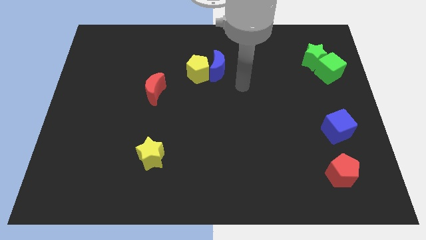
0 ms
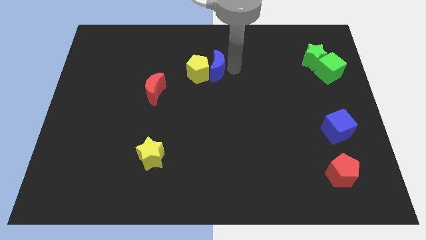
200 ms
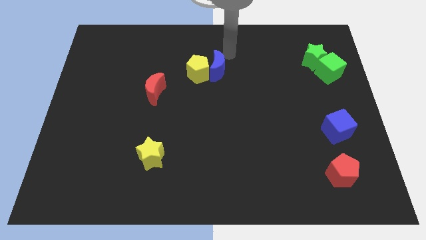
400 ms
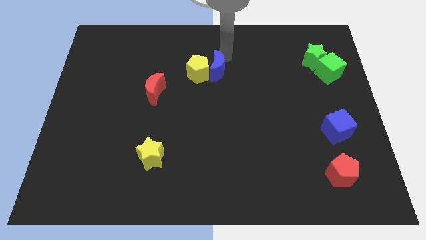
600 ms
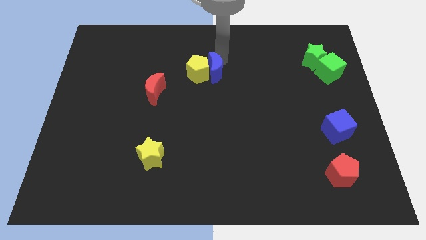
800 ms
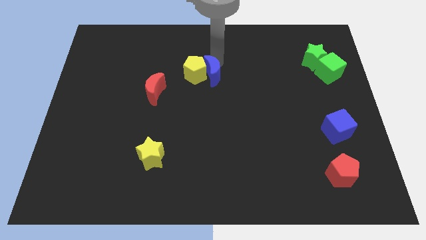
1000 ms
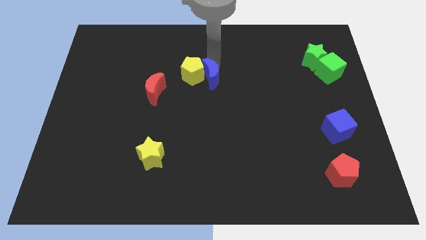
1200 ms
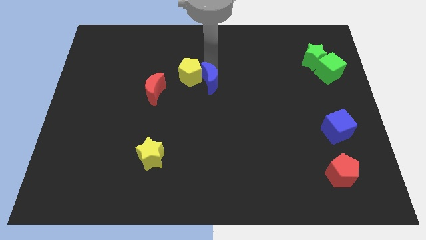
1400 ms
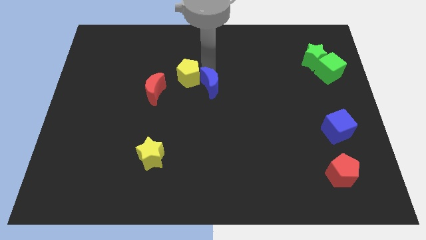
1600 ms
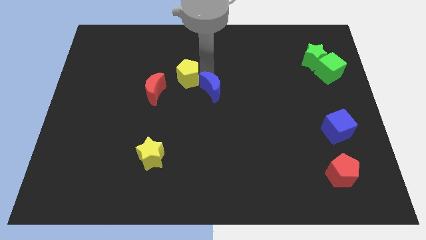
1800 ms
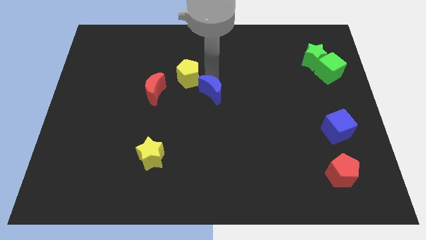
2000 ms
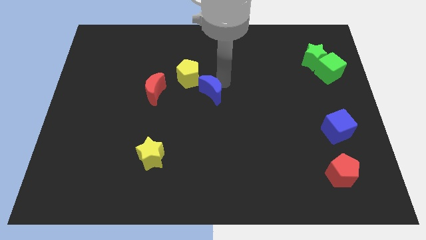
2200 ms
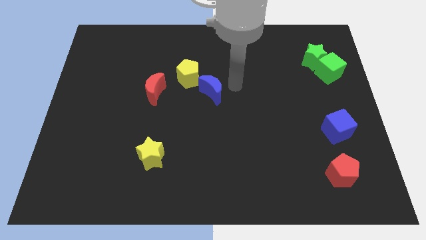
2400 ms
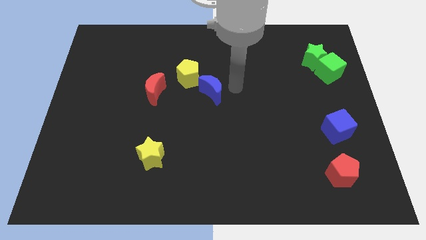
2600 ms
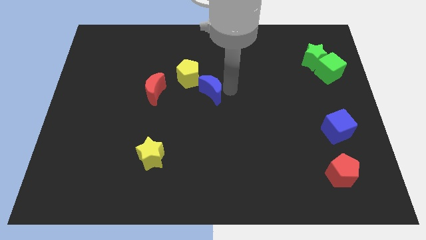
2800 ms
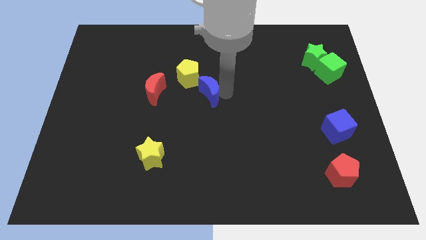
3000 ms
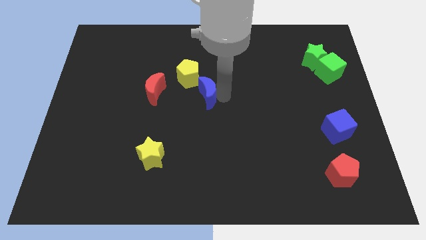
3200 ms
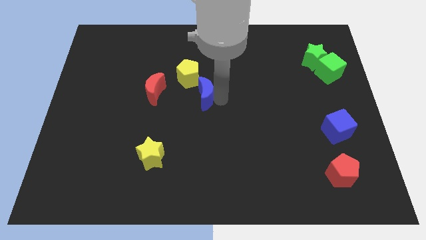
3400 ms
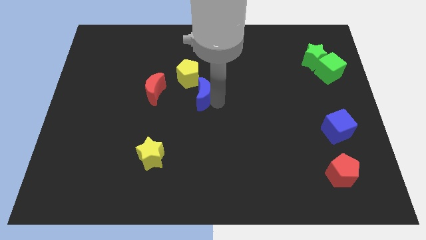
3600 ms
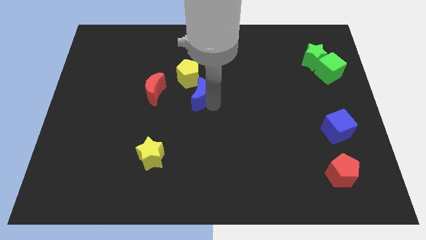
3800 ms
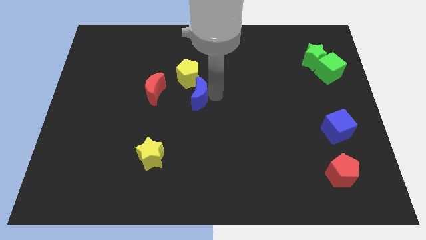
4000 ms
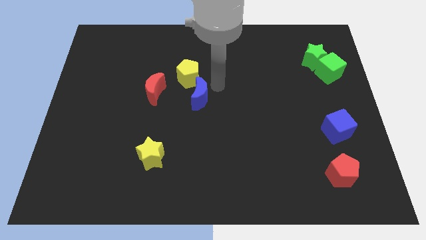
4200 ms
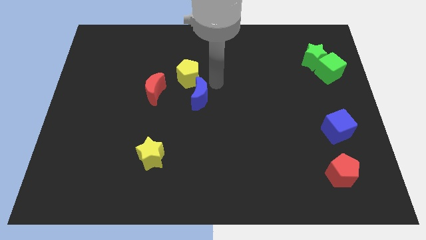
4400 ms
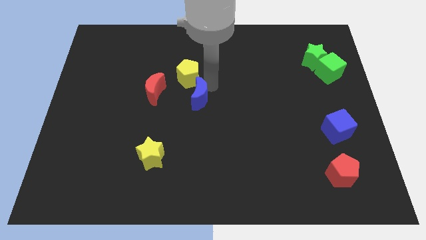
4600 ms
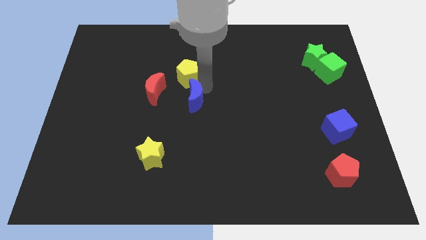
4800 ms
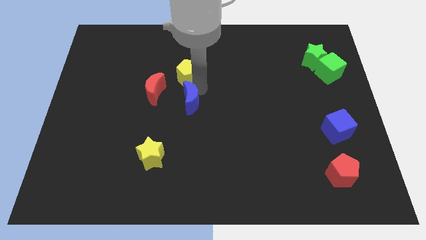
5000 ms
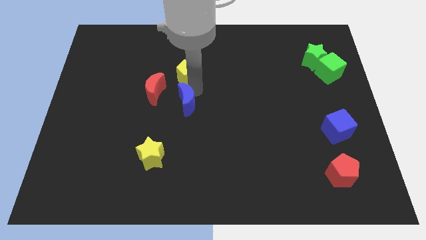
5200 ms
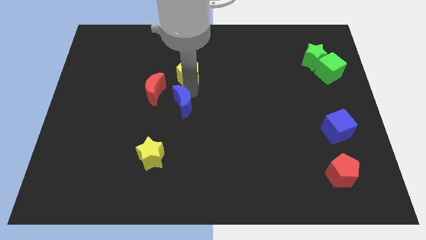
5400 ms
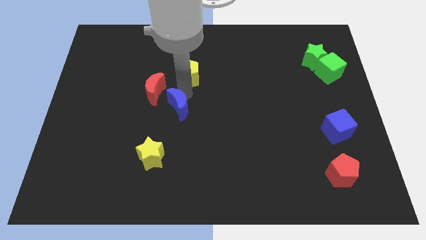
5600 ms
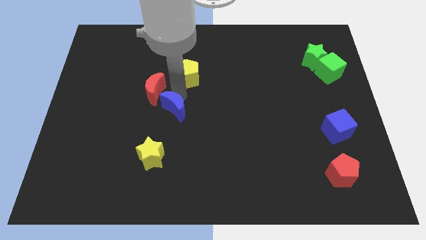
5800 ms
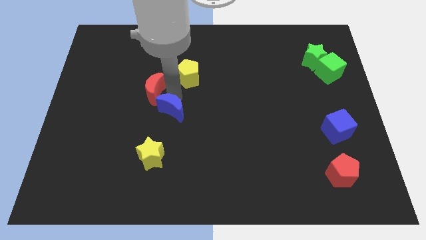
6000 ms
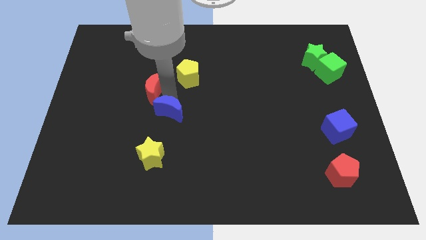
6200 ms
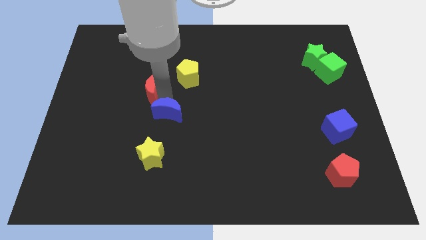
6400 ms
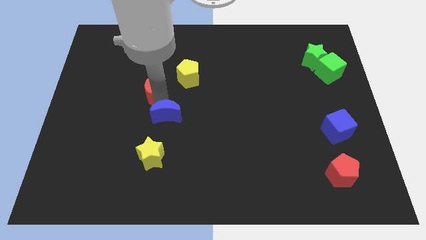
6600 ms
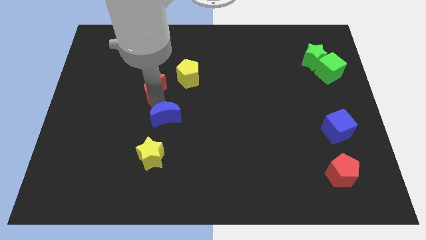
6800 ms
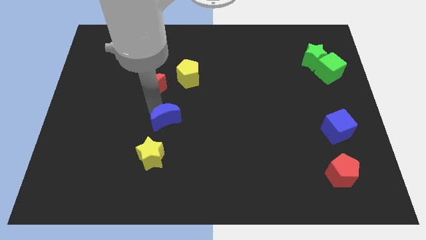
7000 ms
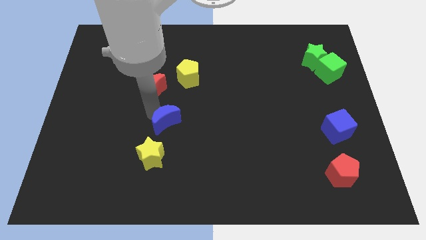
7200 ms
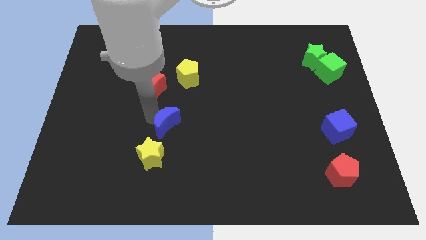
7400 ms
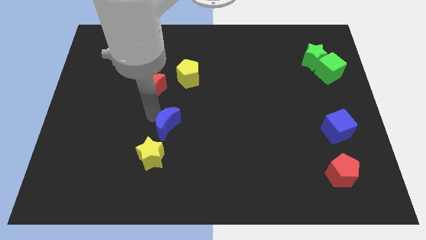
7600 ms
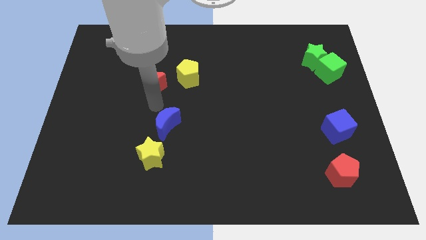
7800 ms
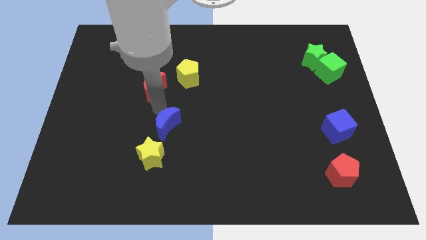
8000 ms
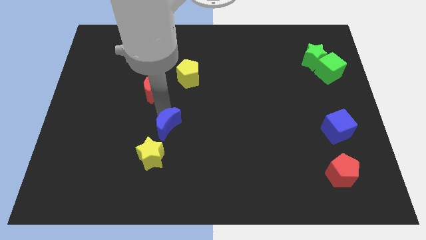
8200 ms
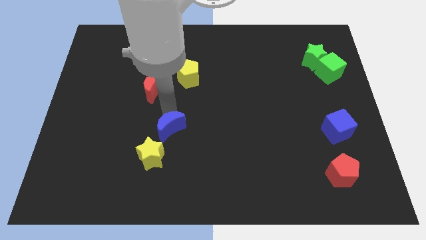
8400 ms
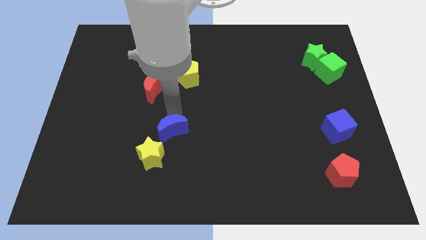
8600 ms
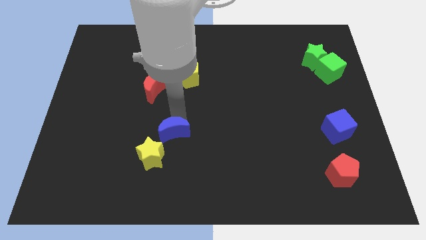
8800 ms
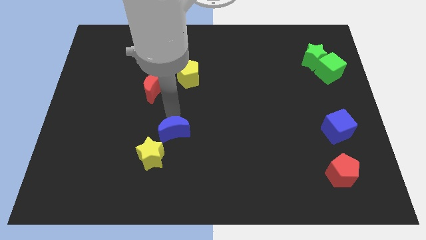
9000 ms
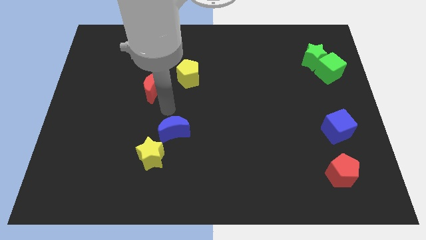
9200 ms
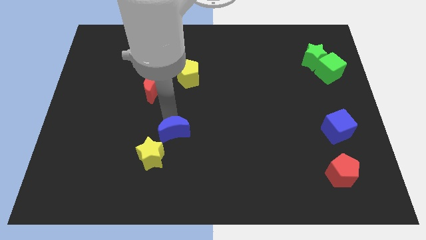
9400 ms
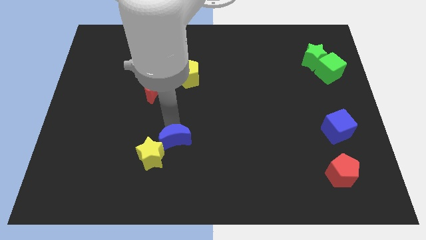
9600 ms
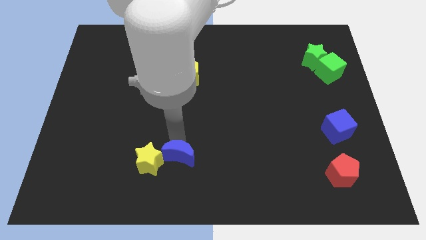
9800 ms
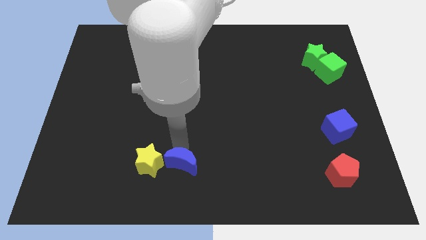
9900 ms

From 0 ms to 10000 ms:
move the blue moon diagonally down and to the right of the yellow star

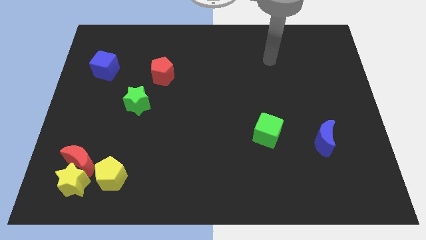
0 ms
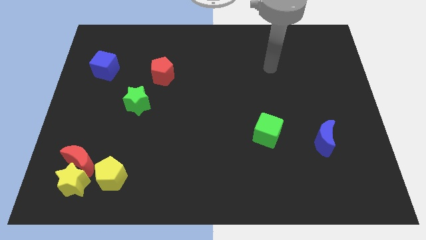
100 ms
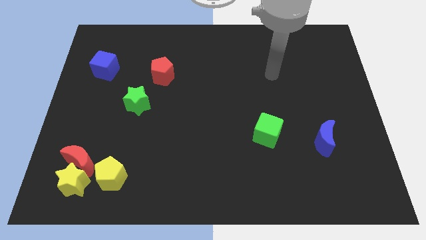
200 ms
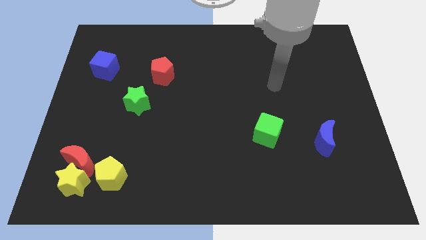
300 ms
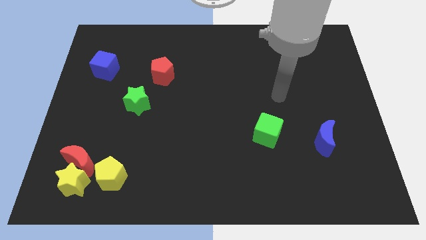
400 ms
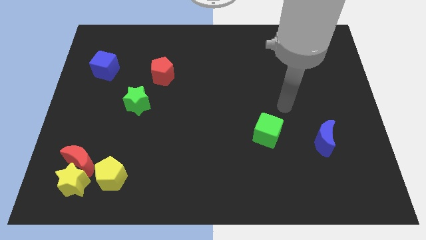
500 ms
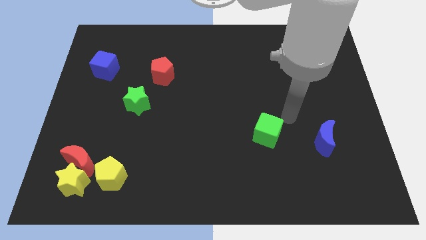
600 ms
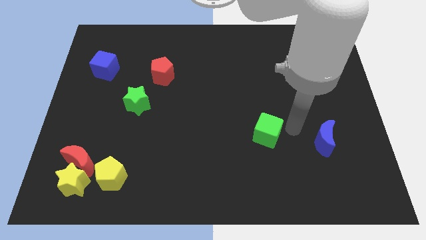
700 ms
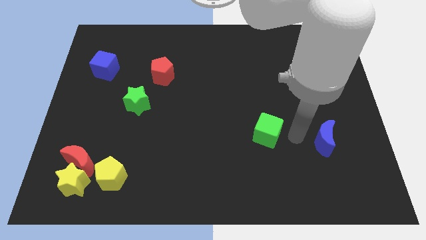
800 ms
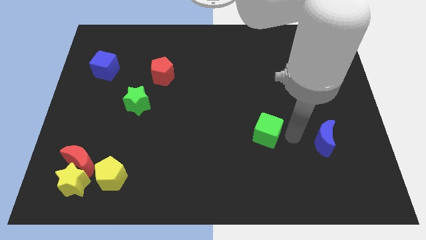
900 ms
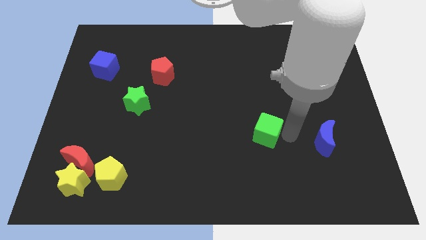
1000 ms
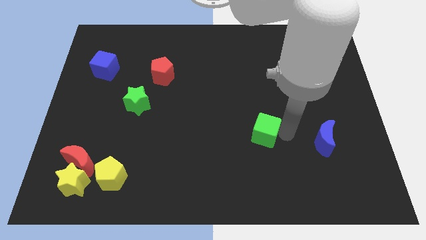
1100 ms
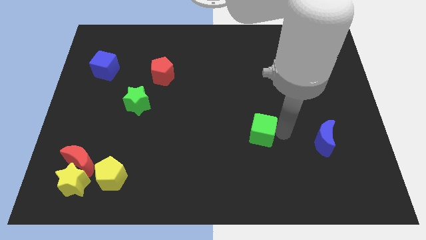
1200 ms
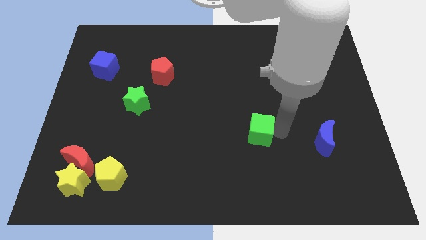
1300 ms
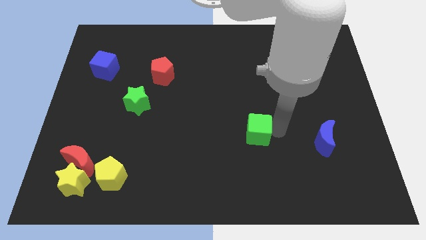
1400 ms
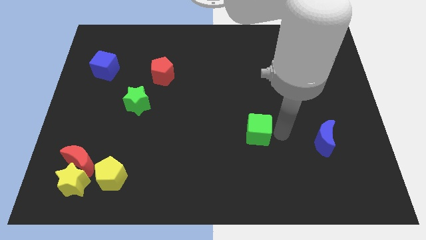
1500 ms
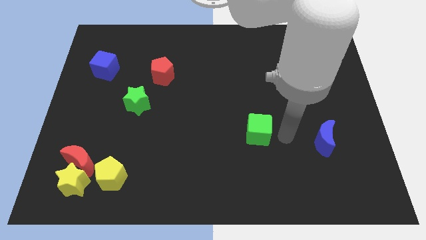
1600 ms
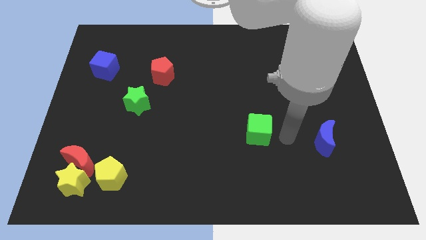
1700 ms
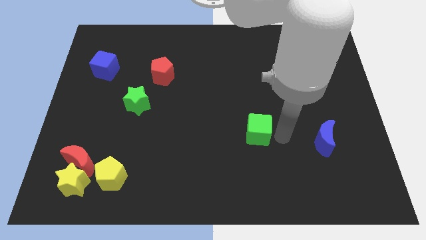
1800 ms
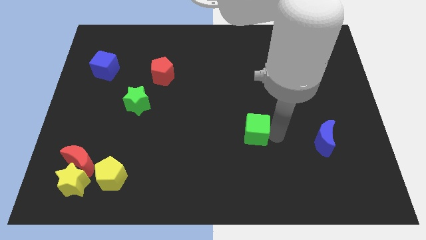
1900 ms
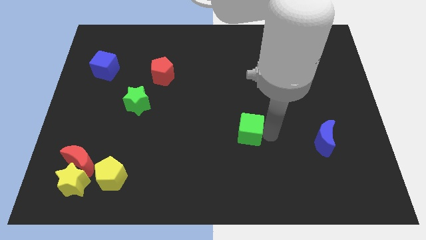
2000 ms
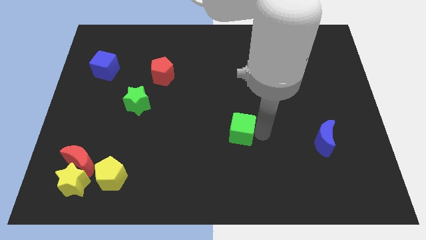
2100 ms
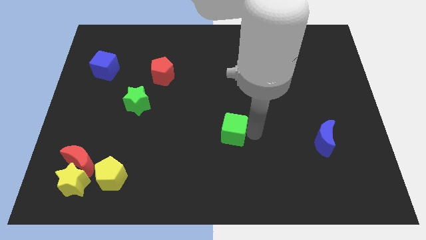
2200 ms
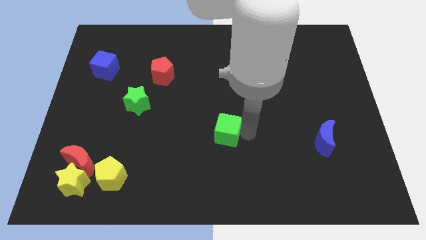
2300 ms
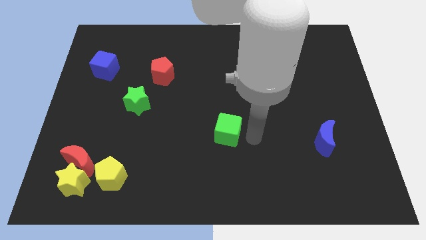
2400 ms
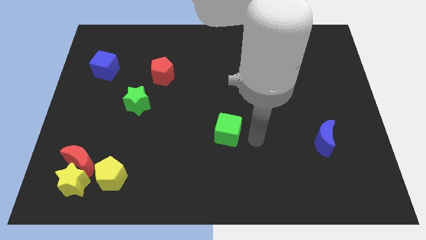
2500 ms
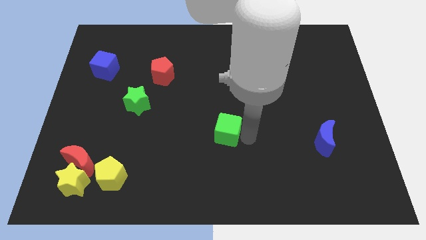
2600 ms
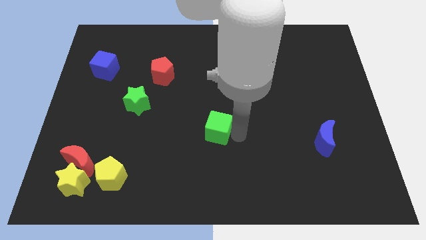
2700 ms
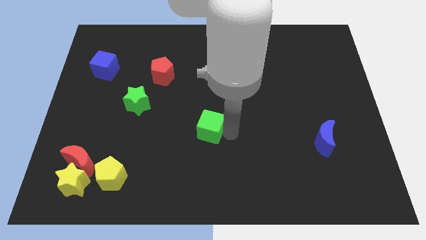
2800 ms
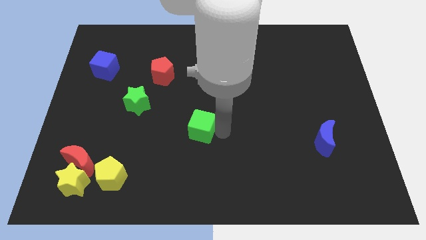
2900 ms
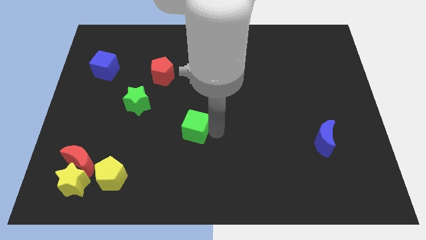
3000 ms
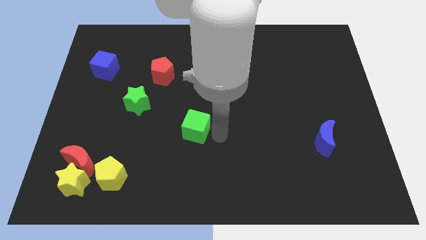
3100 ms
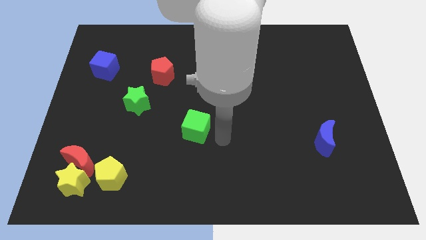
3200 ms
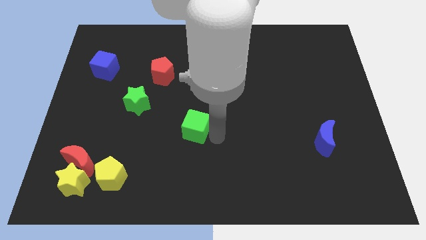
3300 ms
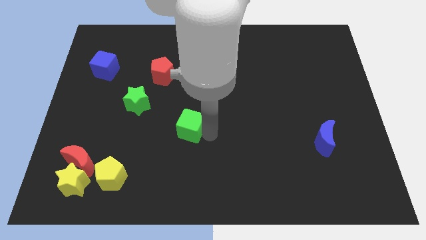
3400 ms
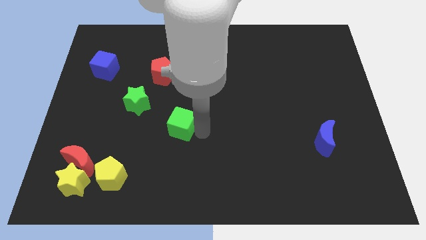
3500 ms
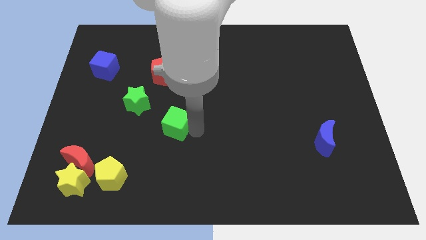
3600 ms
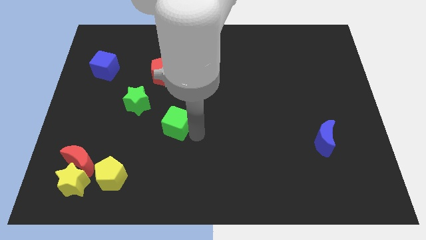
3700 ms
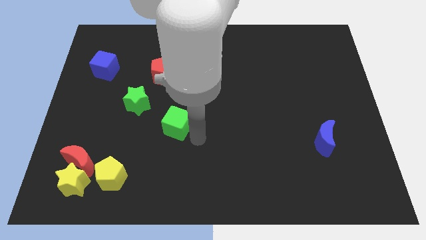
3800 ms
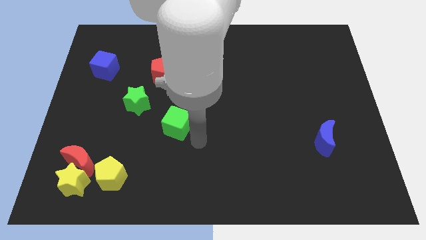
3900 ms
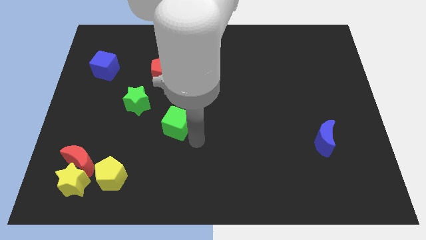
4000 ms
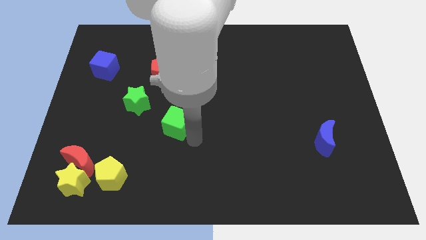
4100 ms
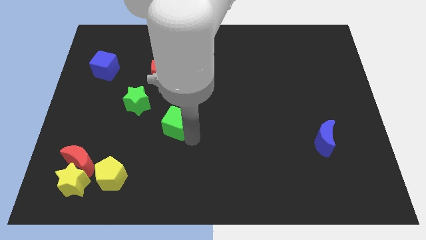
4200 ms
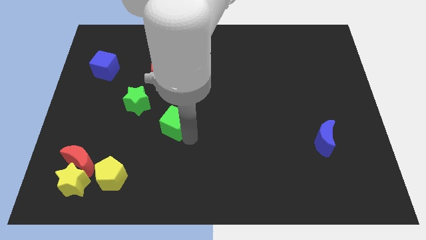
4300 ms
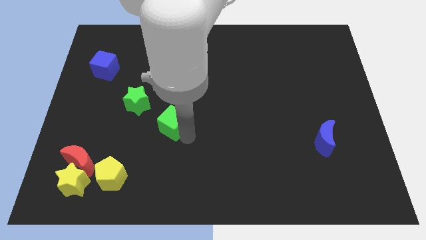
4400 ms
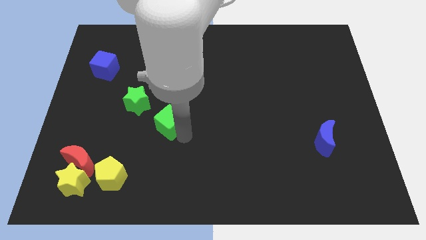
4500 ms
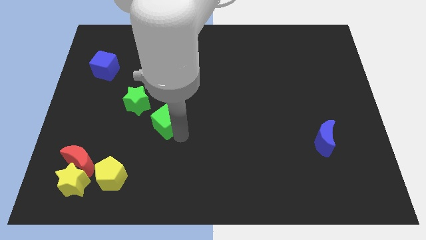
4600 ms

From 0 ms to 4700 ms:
push the green cube to the bottom side of the red pentagon
